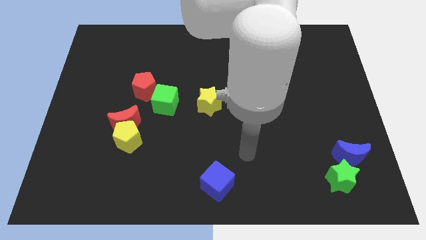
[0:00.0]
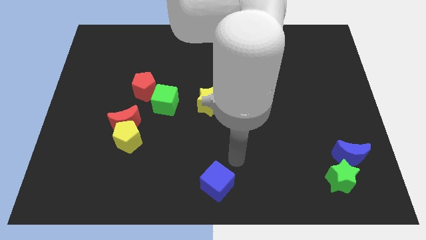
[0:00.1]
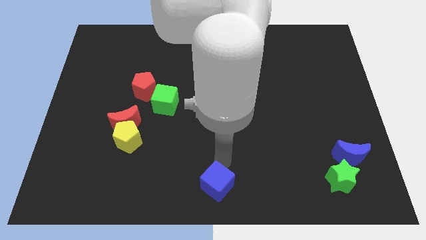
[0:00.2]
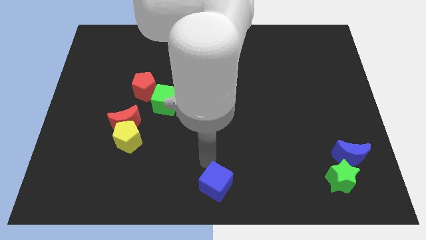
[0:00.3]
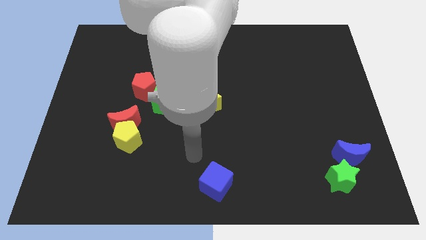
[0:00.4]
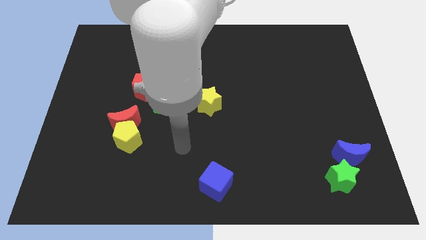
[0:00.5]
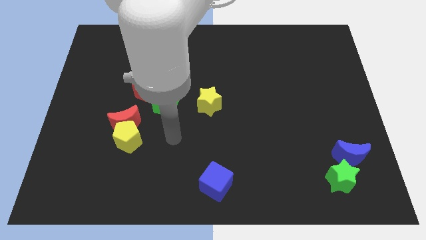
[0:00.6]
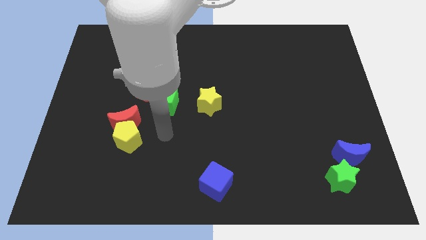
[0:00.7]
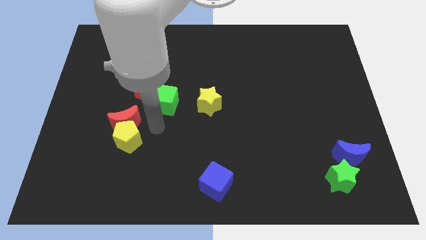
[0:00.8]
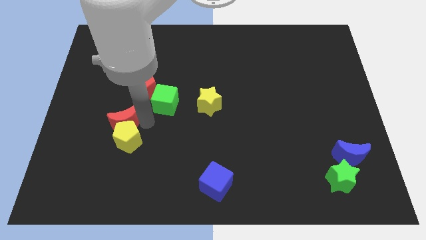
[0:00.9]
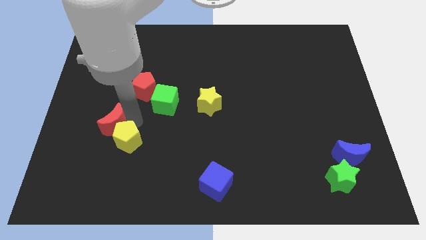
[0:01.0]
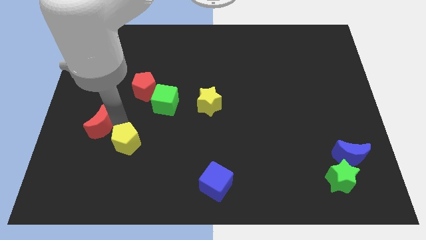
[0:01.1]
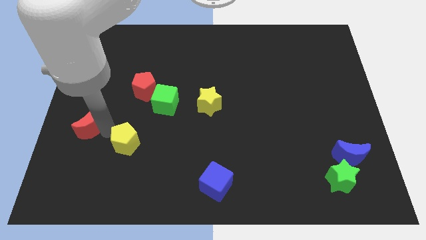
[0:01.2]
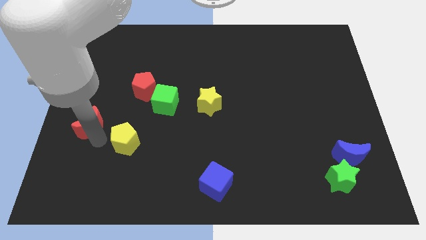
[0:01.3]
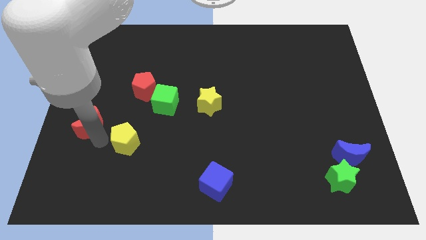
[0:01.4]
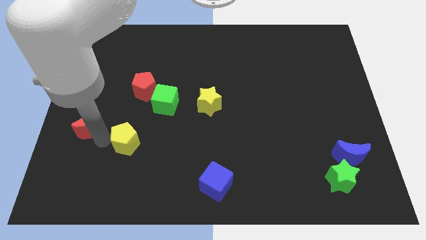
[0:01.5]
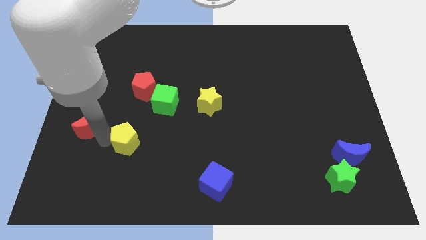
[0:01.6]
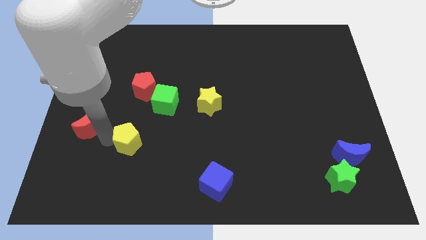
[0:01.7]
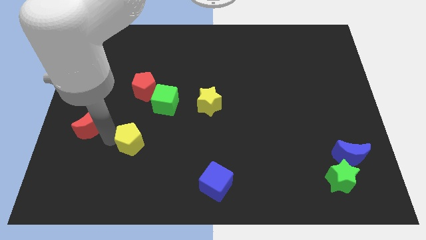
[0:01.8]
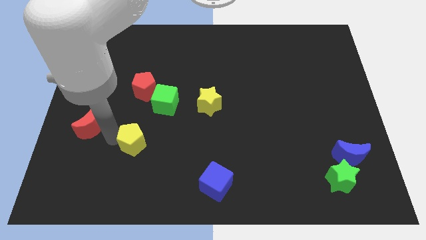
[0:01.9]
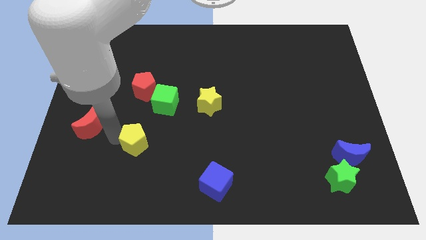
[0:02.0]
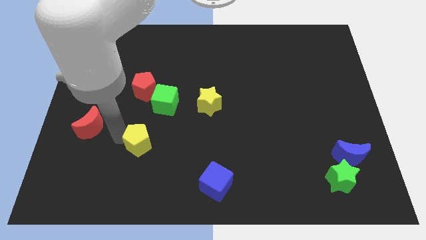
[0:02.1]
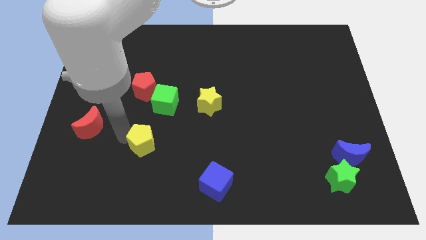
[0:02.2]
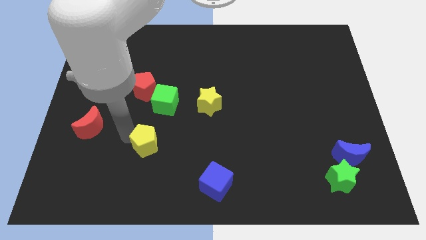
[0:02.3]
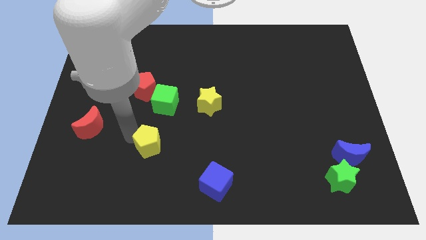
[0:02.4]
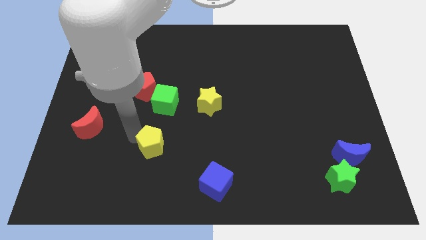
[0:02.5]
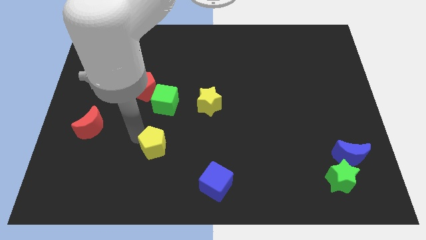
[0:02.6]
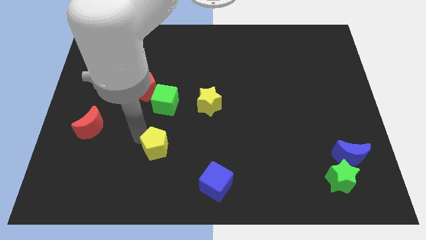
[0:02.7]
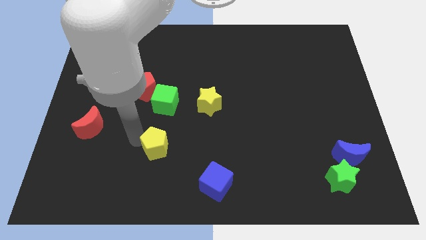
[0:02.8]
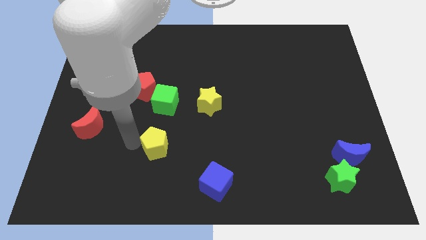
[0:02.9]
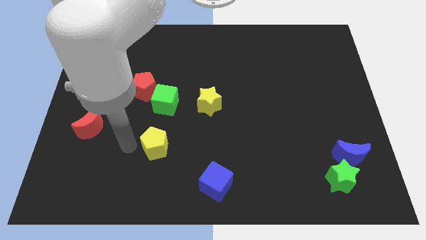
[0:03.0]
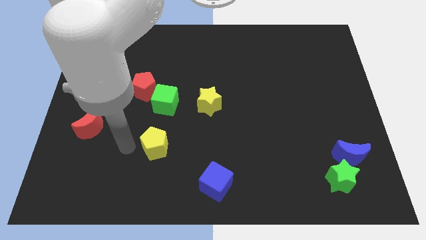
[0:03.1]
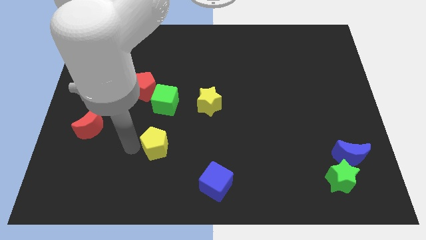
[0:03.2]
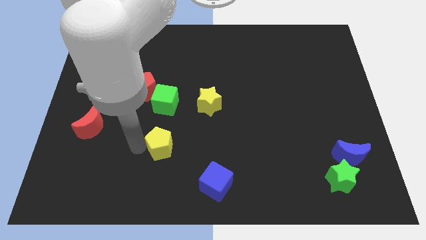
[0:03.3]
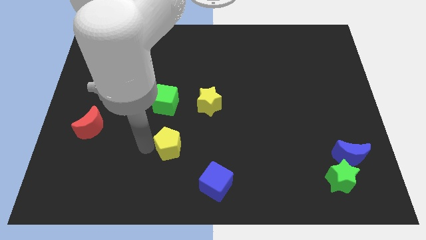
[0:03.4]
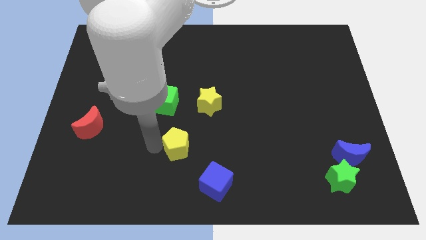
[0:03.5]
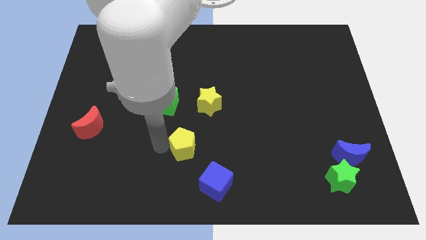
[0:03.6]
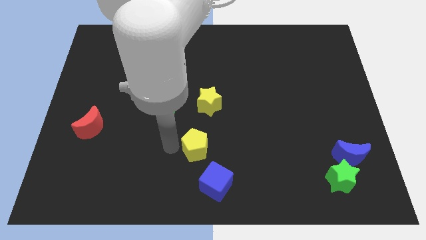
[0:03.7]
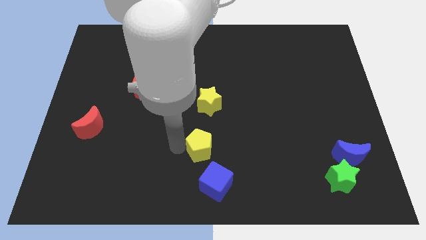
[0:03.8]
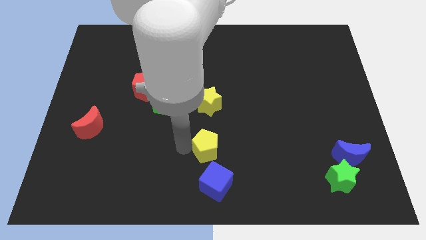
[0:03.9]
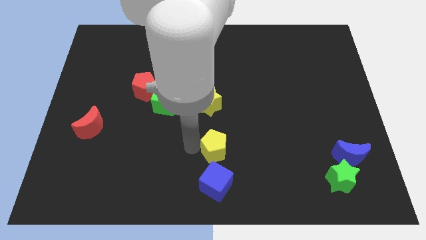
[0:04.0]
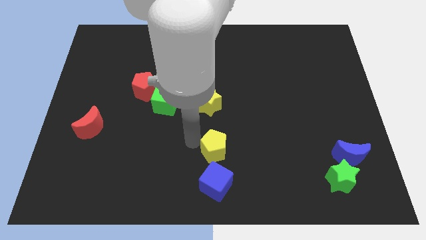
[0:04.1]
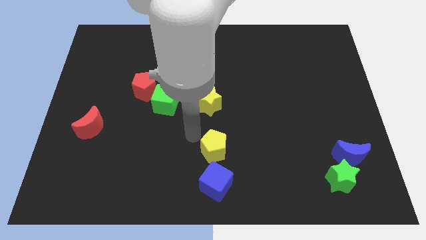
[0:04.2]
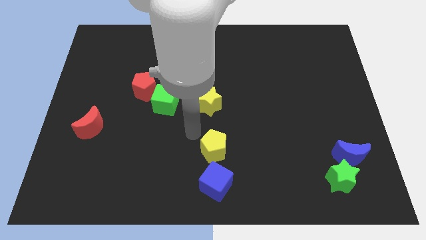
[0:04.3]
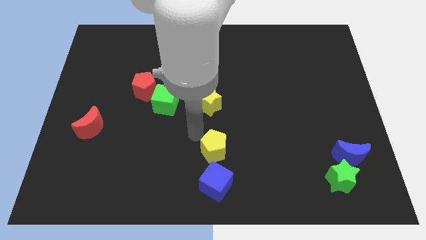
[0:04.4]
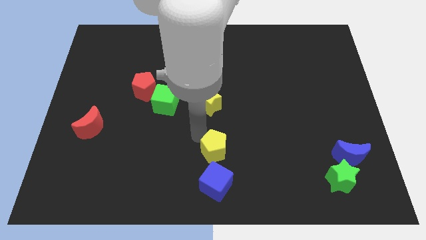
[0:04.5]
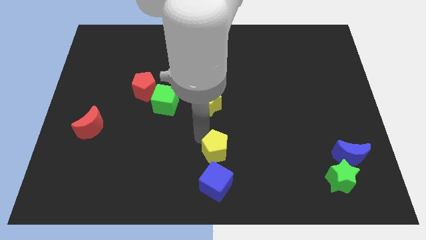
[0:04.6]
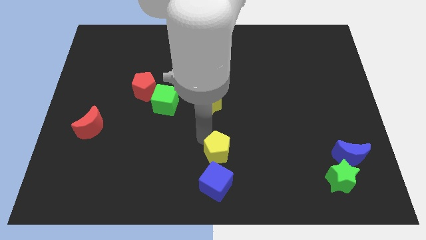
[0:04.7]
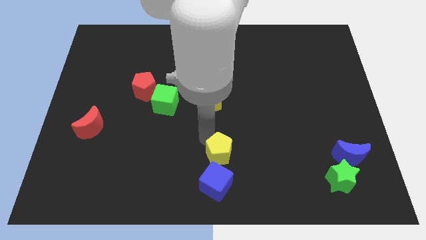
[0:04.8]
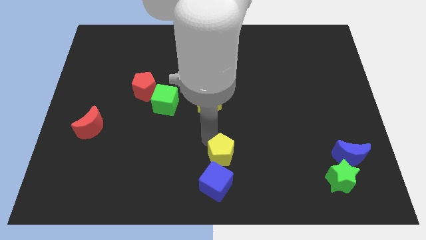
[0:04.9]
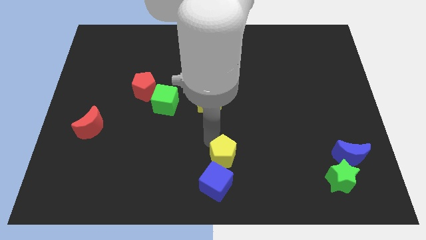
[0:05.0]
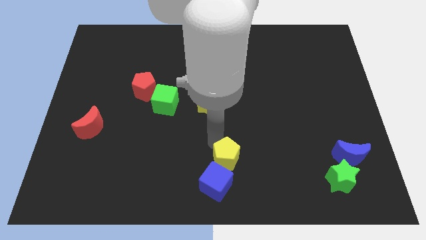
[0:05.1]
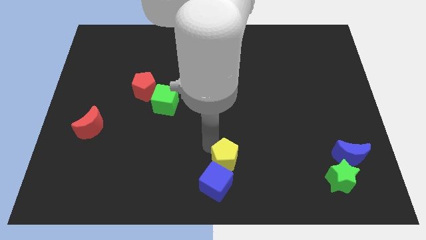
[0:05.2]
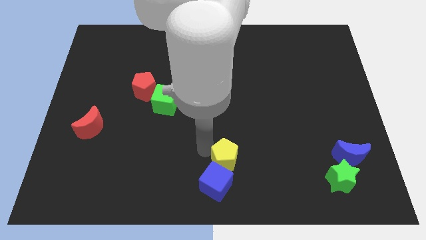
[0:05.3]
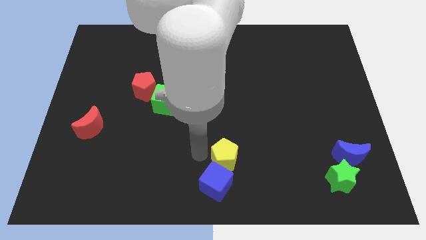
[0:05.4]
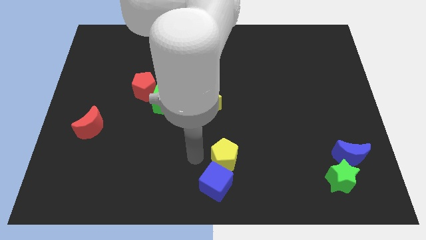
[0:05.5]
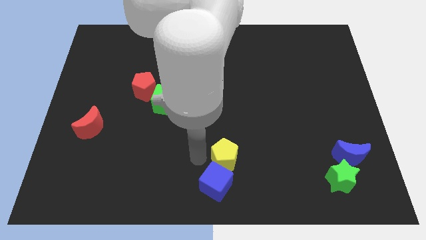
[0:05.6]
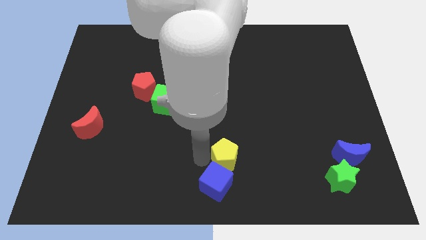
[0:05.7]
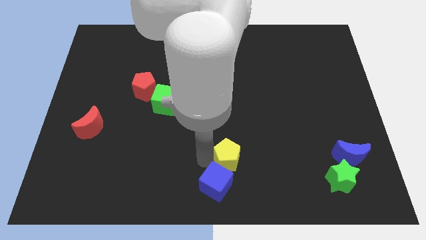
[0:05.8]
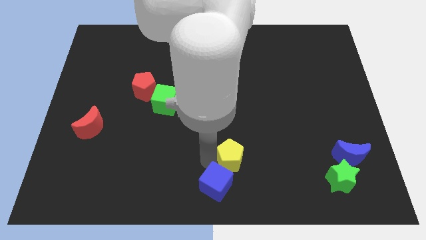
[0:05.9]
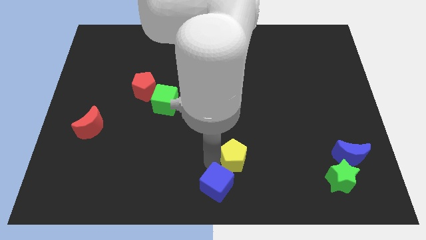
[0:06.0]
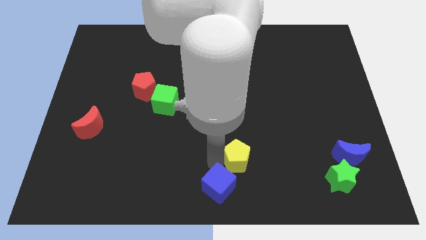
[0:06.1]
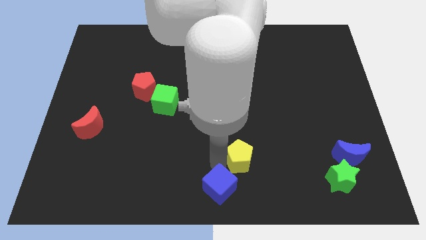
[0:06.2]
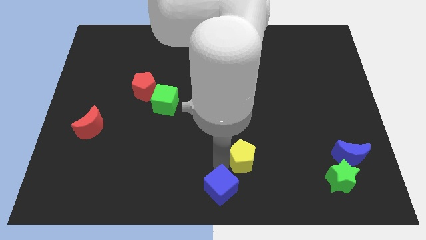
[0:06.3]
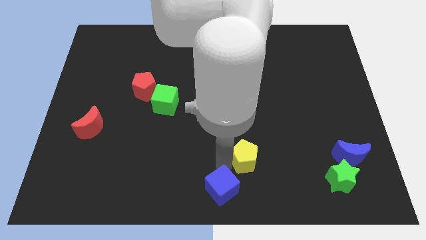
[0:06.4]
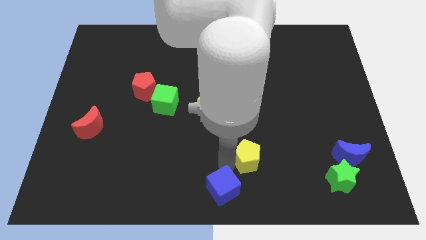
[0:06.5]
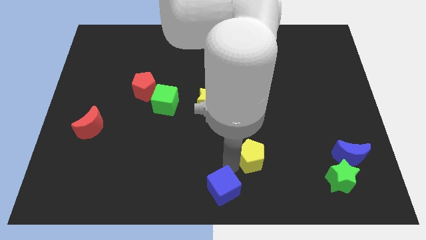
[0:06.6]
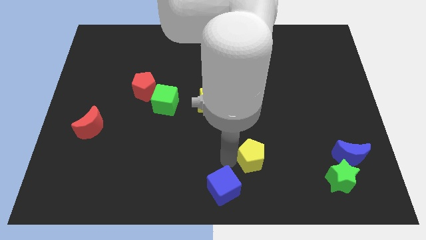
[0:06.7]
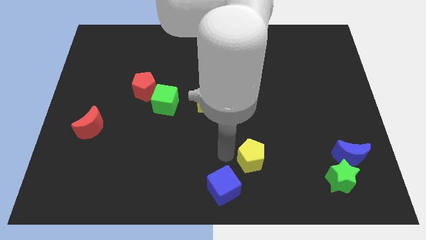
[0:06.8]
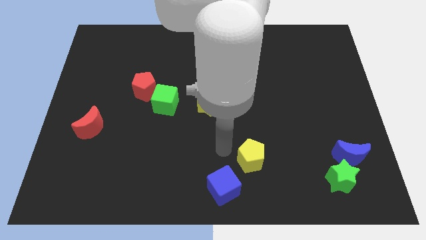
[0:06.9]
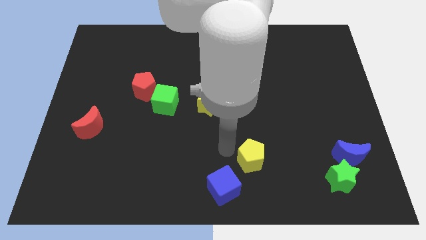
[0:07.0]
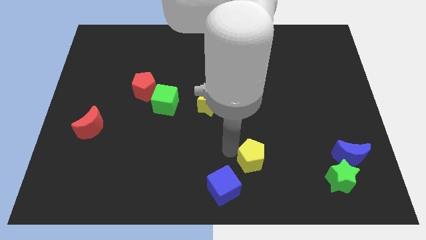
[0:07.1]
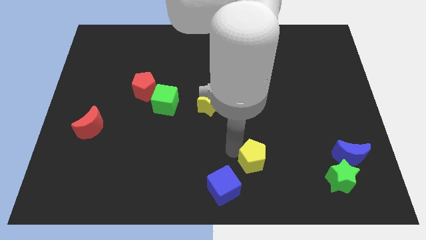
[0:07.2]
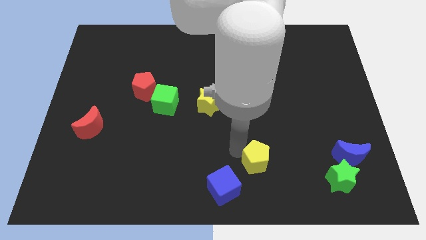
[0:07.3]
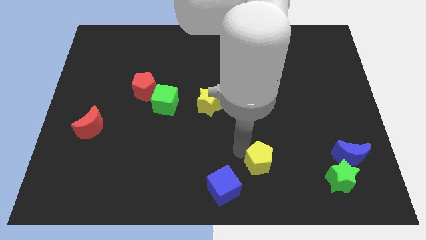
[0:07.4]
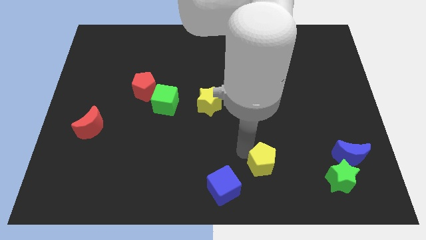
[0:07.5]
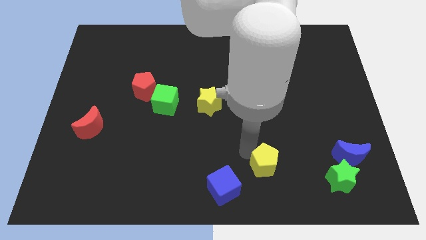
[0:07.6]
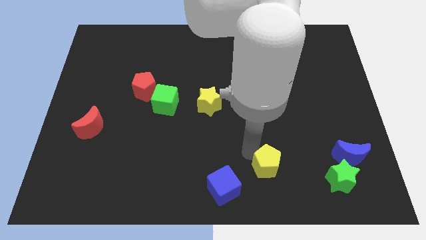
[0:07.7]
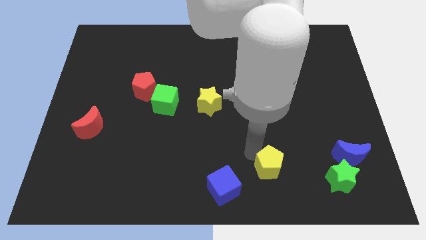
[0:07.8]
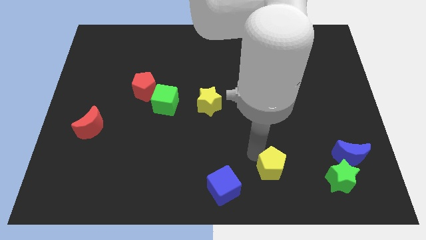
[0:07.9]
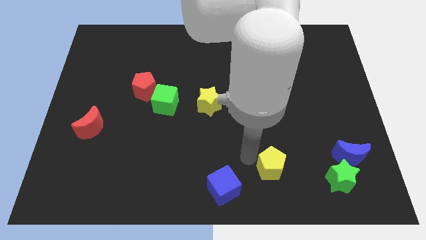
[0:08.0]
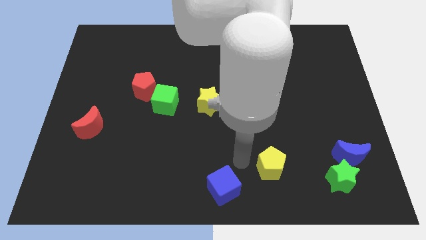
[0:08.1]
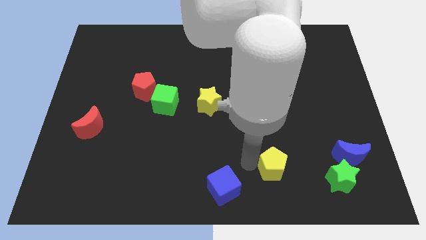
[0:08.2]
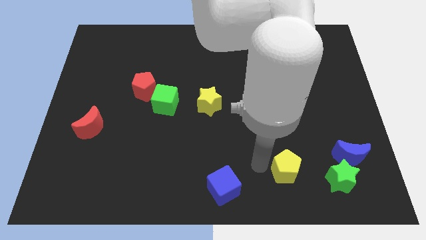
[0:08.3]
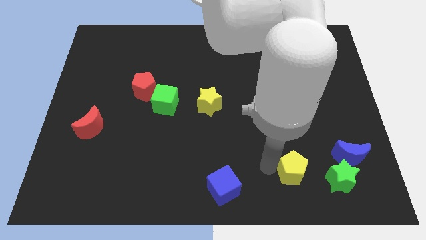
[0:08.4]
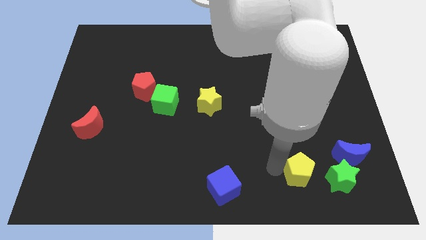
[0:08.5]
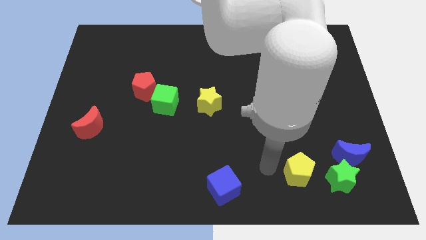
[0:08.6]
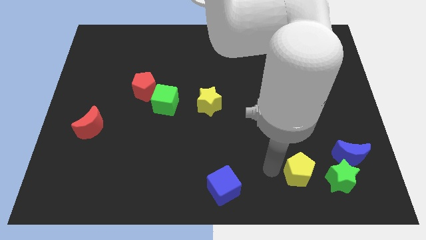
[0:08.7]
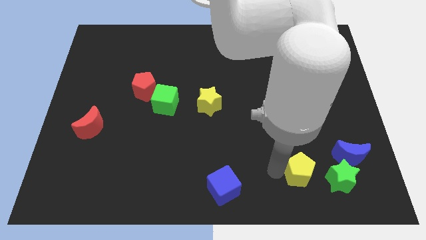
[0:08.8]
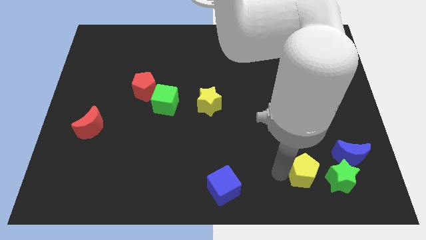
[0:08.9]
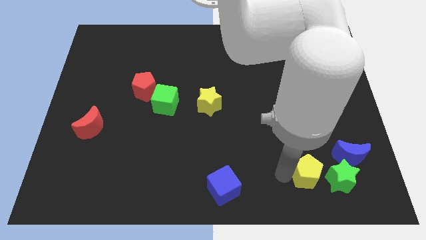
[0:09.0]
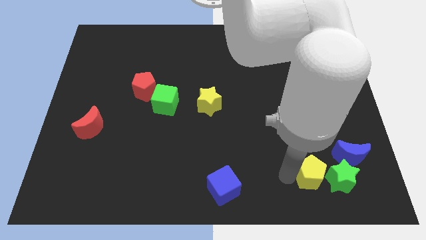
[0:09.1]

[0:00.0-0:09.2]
move the yellow pentagon close to the green star
